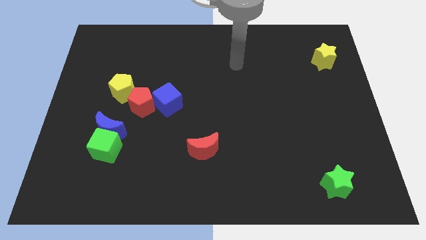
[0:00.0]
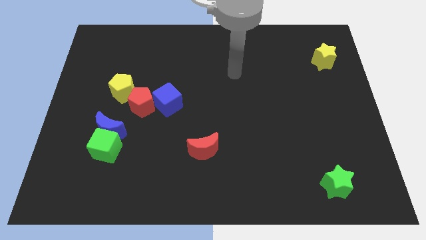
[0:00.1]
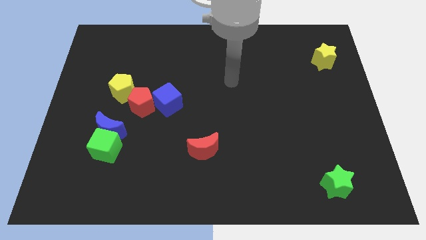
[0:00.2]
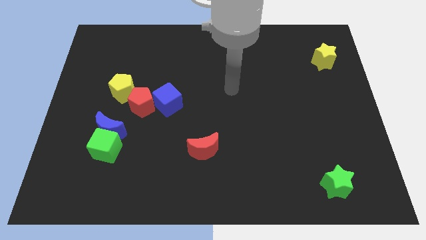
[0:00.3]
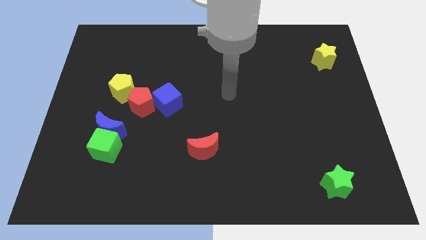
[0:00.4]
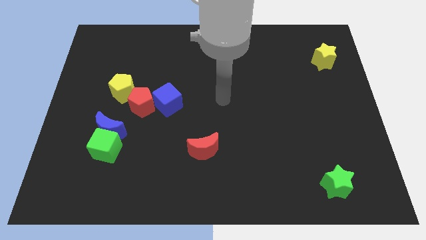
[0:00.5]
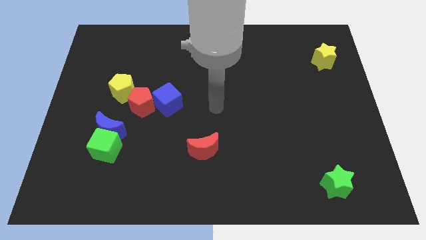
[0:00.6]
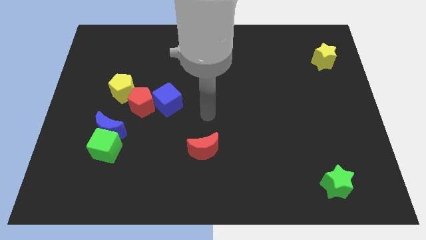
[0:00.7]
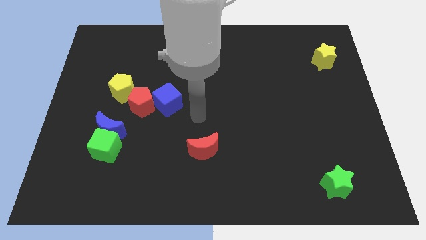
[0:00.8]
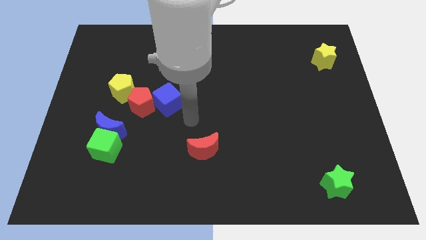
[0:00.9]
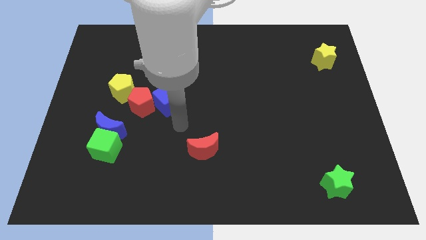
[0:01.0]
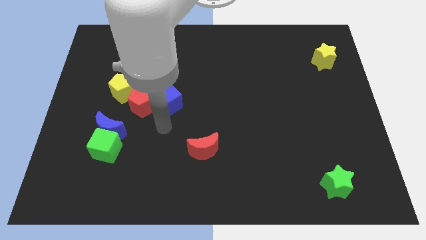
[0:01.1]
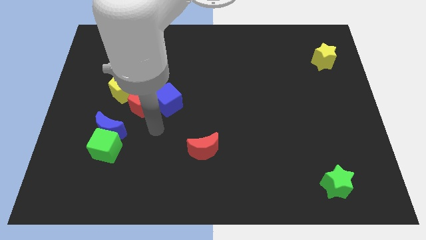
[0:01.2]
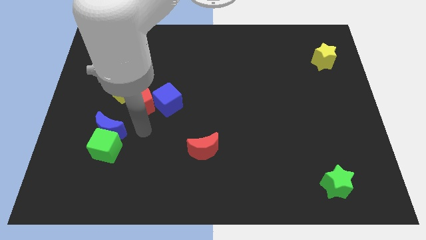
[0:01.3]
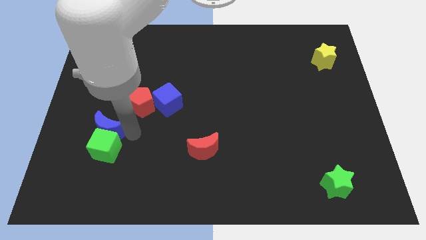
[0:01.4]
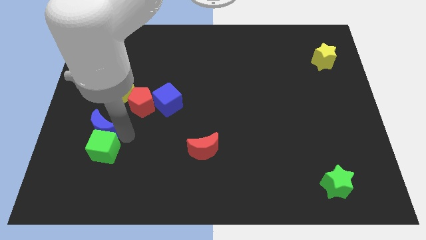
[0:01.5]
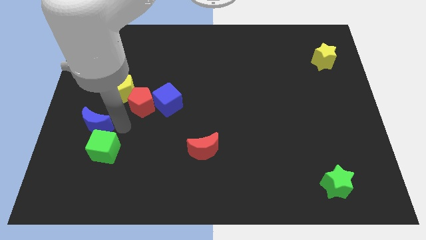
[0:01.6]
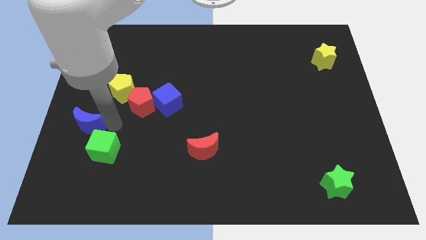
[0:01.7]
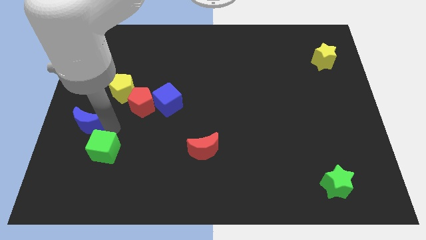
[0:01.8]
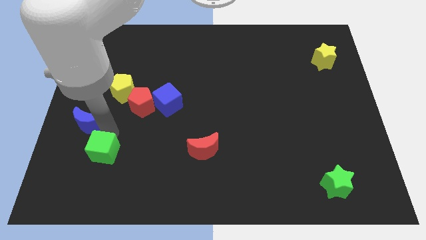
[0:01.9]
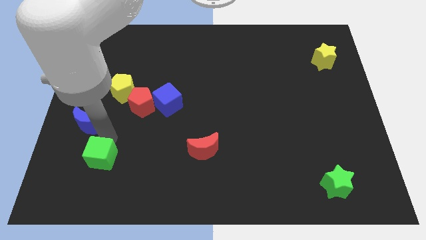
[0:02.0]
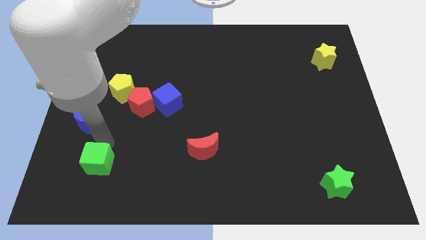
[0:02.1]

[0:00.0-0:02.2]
separate the green cube from the blue moon

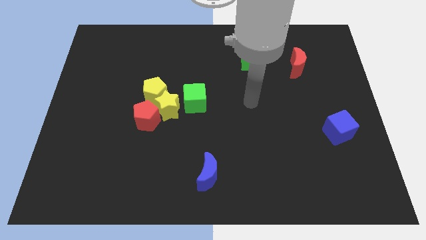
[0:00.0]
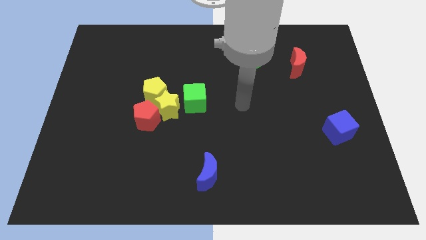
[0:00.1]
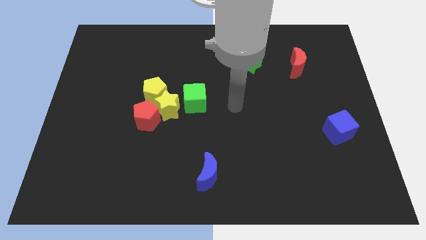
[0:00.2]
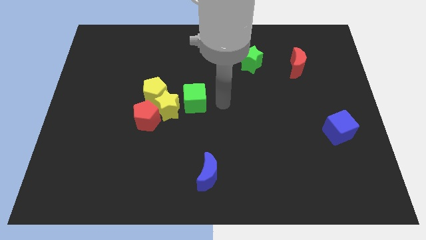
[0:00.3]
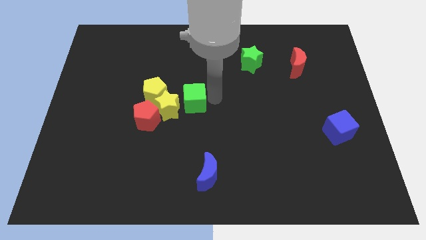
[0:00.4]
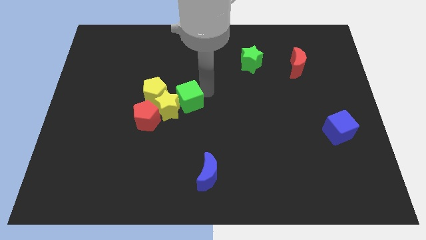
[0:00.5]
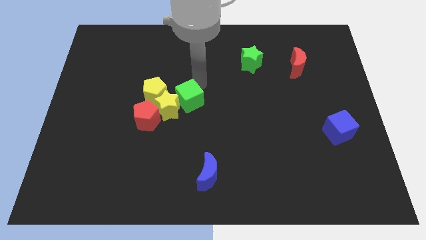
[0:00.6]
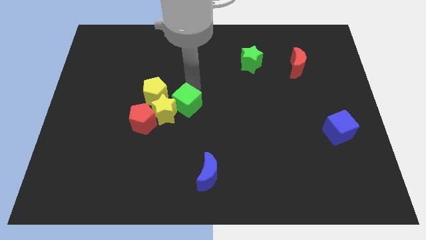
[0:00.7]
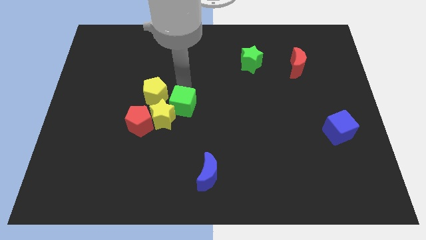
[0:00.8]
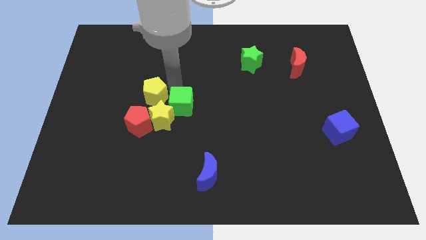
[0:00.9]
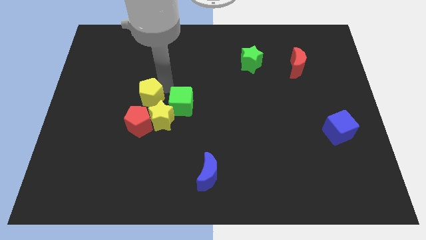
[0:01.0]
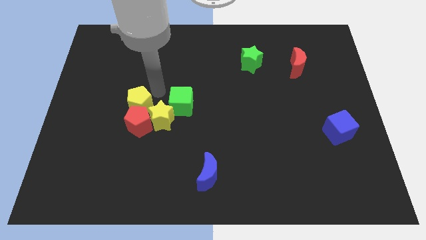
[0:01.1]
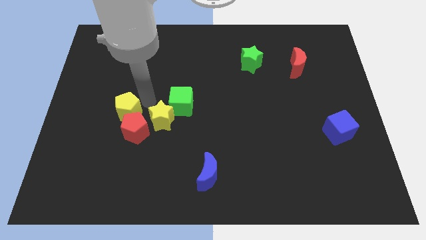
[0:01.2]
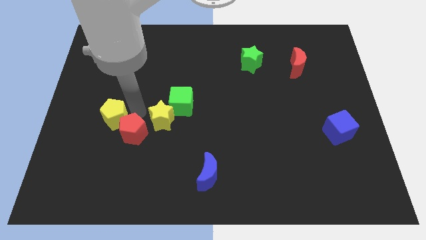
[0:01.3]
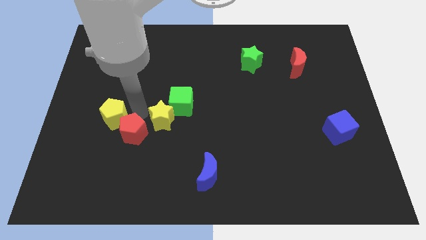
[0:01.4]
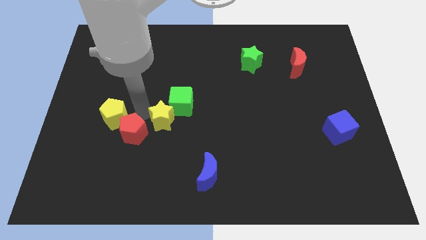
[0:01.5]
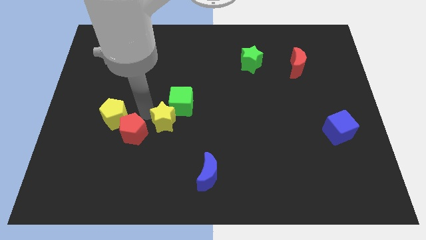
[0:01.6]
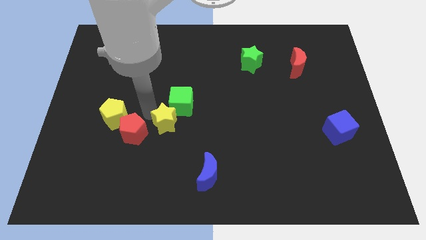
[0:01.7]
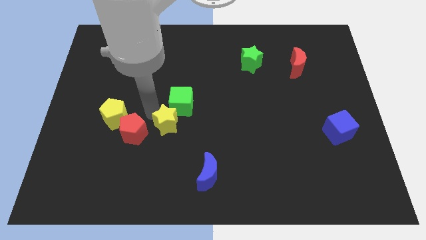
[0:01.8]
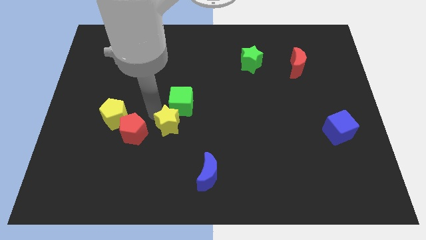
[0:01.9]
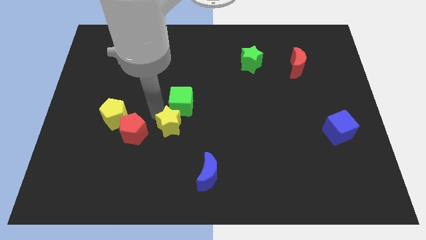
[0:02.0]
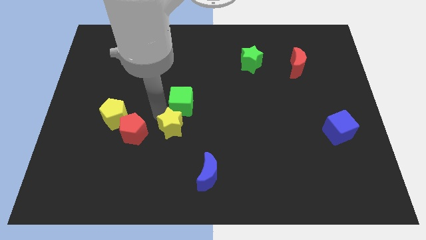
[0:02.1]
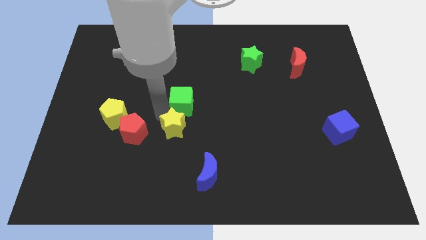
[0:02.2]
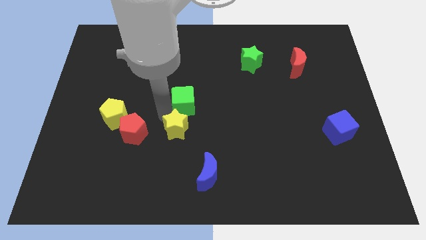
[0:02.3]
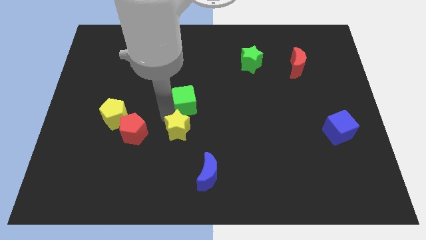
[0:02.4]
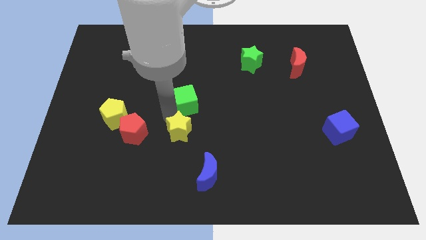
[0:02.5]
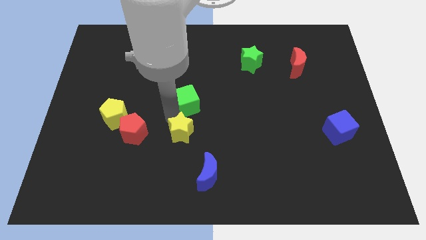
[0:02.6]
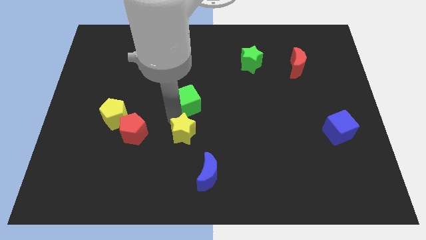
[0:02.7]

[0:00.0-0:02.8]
move the yellow star away from the yellow pentagon, red pentagon, and green cube

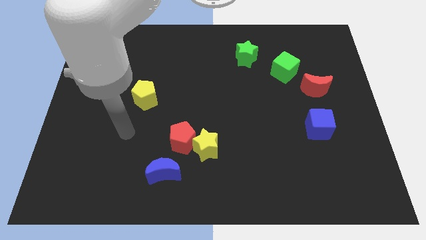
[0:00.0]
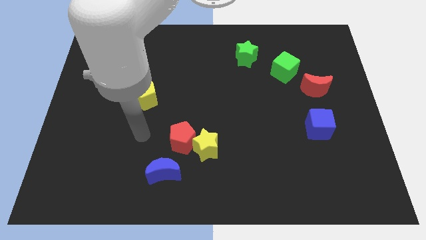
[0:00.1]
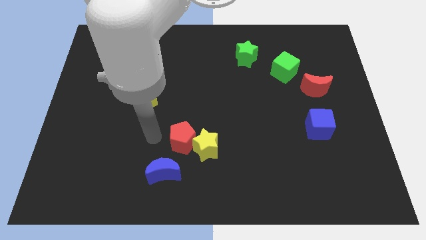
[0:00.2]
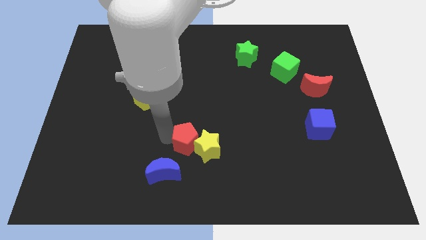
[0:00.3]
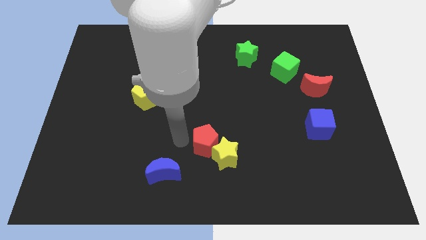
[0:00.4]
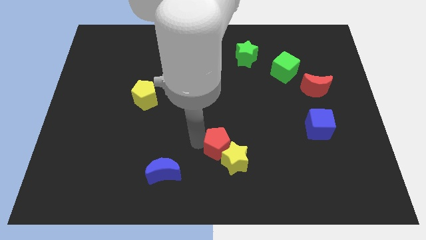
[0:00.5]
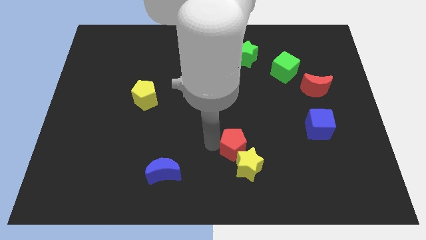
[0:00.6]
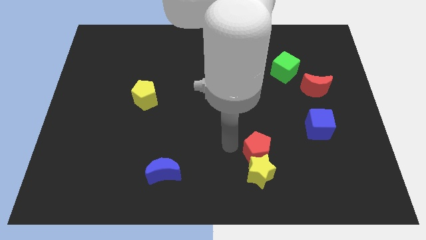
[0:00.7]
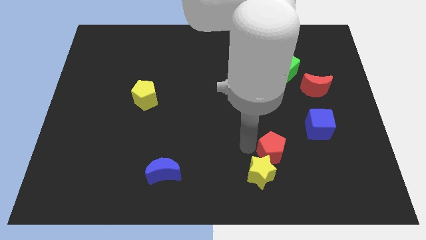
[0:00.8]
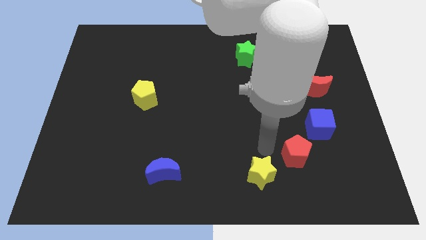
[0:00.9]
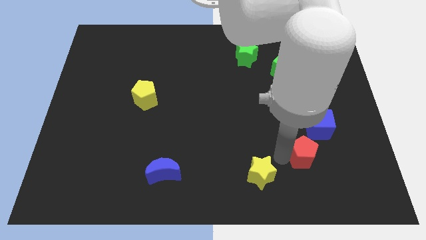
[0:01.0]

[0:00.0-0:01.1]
move the yellow star away from the red pentagon

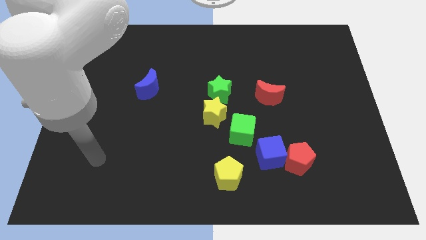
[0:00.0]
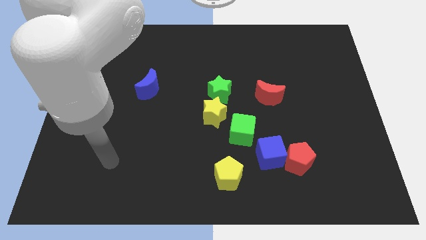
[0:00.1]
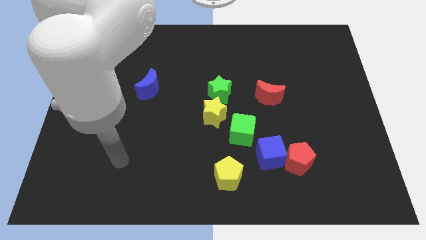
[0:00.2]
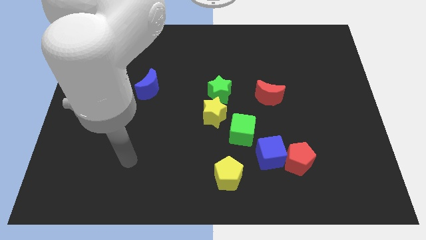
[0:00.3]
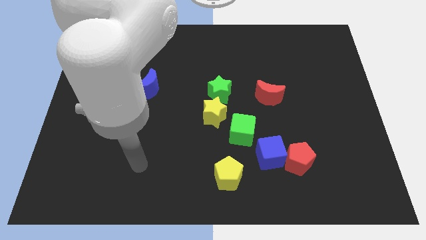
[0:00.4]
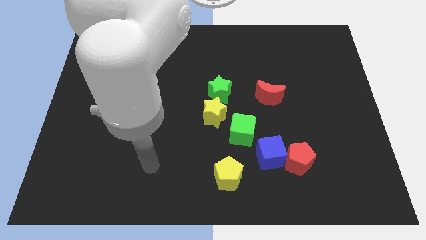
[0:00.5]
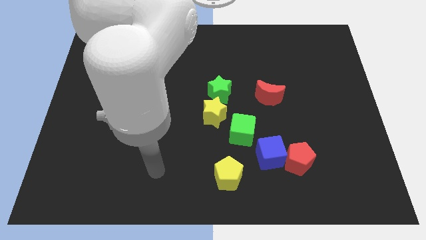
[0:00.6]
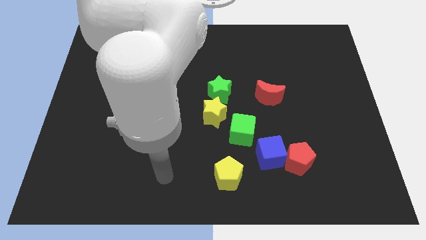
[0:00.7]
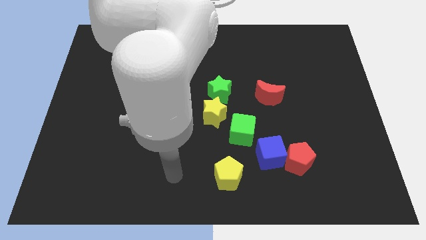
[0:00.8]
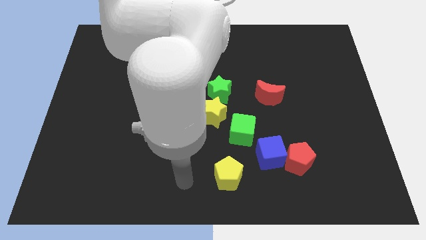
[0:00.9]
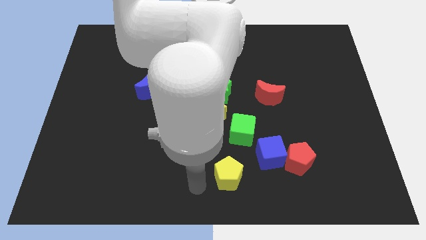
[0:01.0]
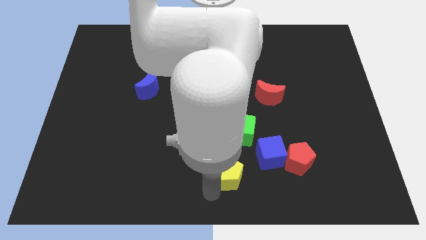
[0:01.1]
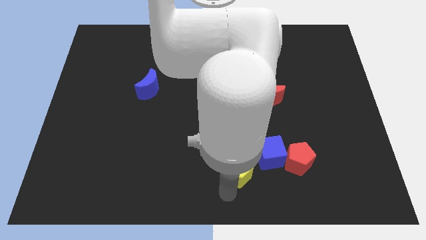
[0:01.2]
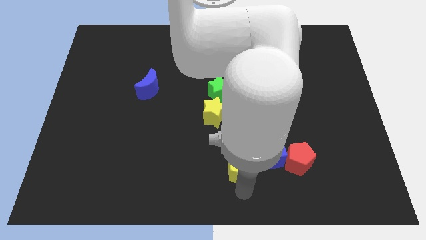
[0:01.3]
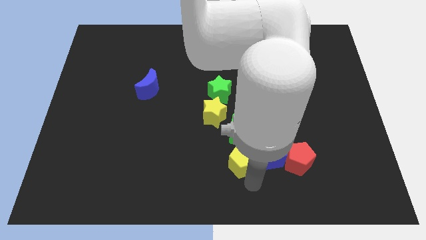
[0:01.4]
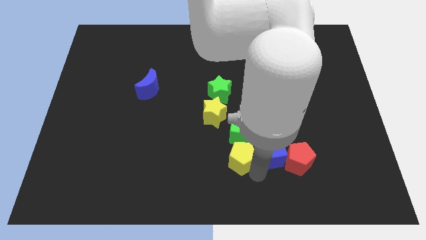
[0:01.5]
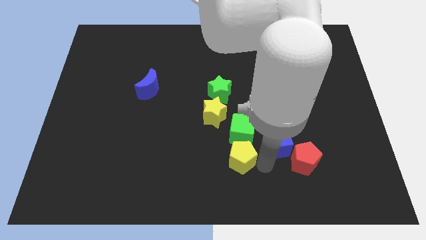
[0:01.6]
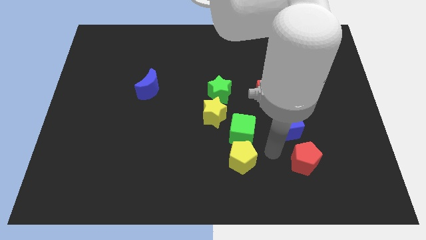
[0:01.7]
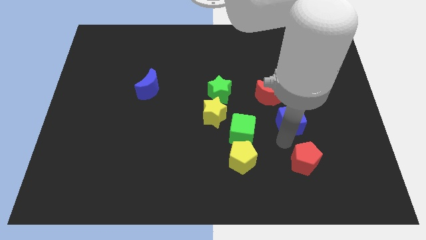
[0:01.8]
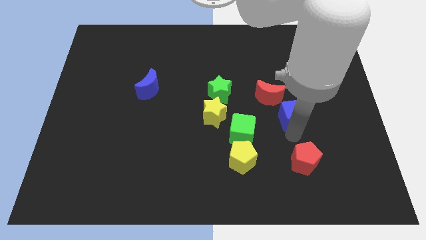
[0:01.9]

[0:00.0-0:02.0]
separate the red pentagon from the blue cube

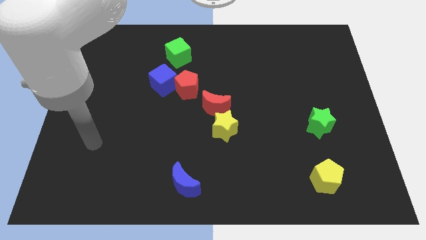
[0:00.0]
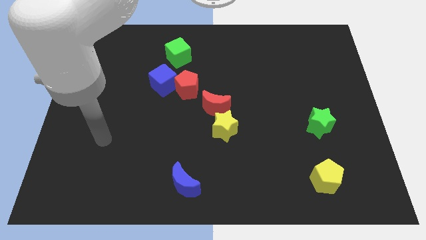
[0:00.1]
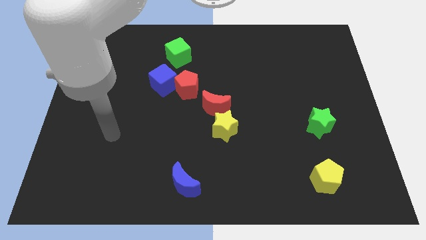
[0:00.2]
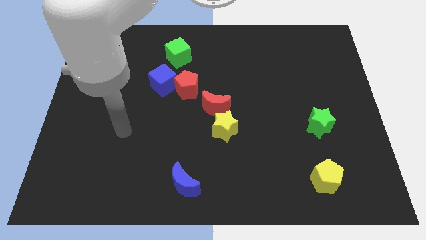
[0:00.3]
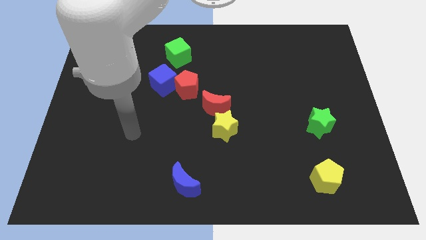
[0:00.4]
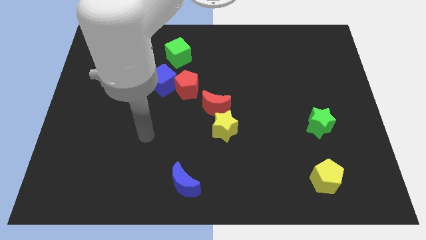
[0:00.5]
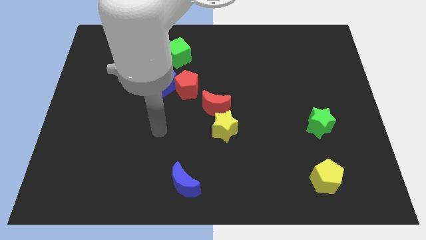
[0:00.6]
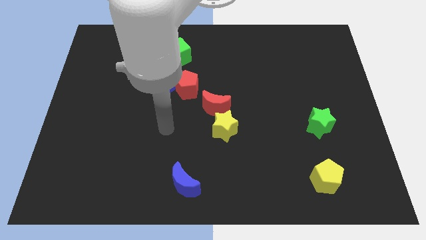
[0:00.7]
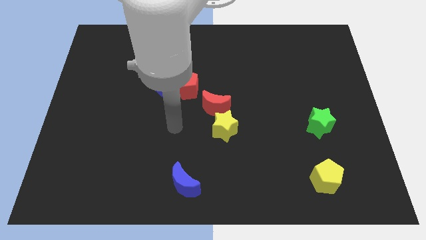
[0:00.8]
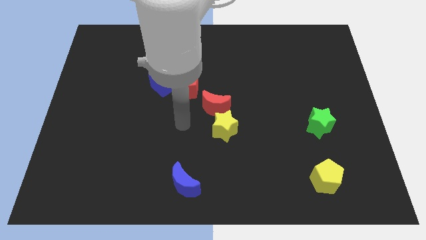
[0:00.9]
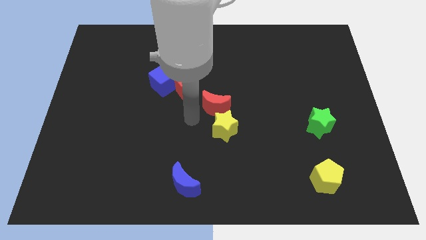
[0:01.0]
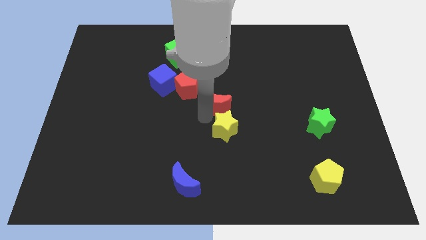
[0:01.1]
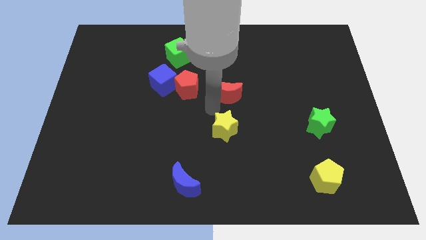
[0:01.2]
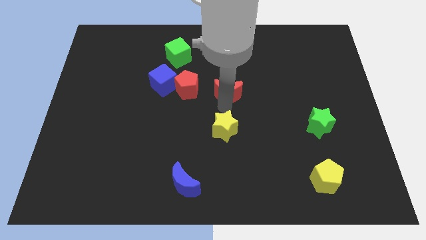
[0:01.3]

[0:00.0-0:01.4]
move the yellow star away from the red moon
